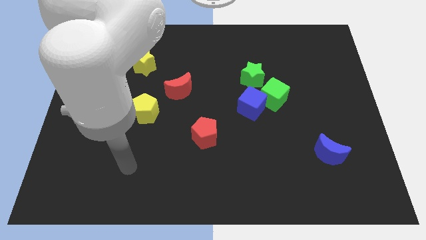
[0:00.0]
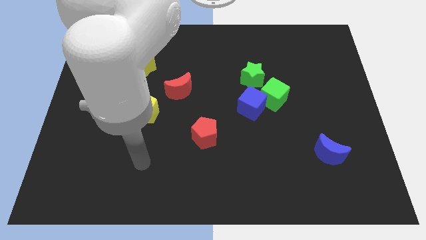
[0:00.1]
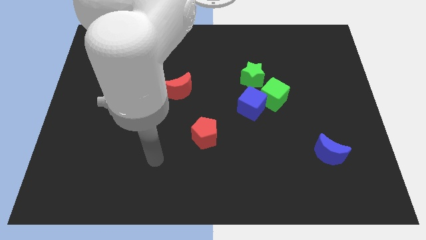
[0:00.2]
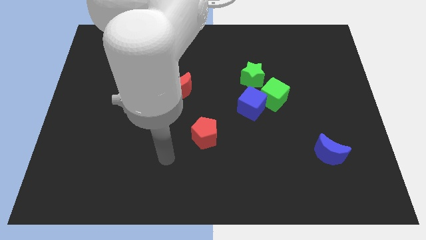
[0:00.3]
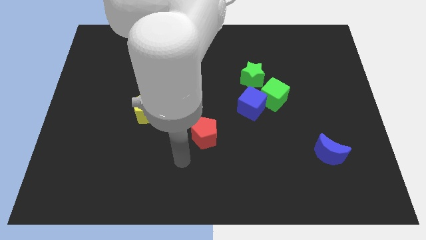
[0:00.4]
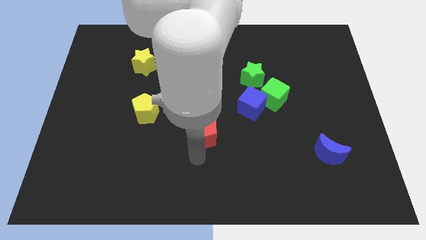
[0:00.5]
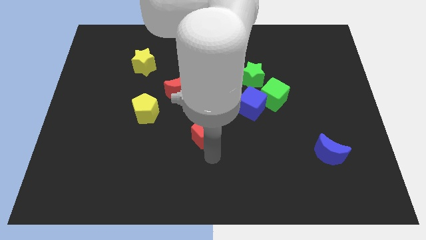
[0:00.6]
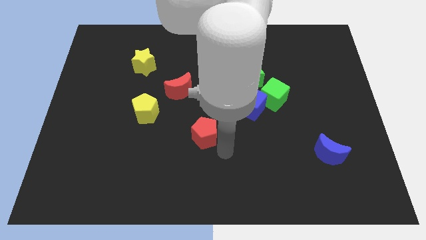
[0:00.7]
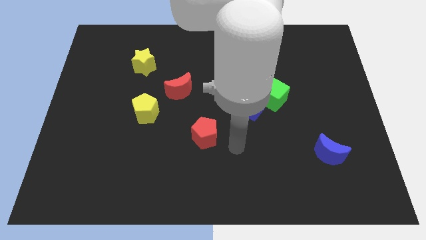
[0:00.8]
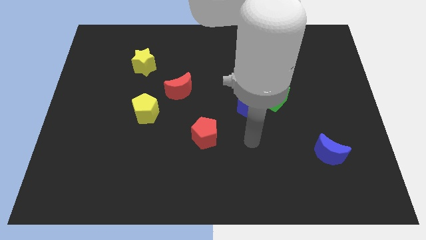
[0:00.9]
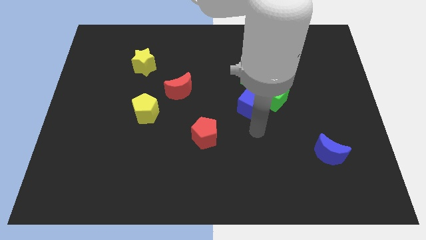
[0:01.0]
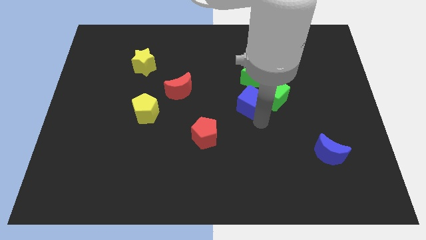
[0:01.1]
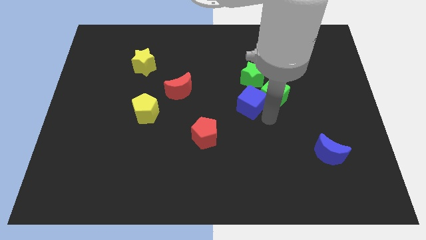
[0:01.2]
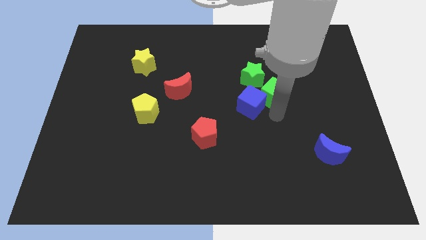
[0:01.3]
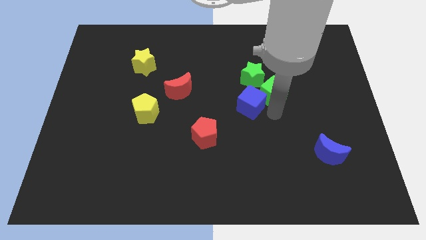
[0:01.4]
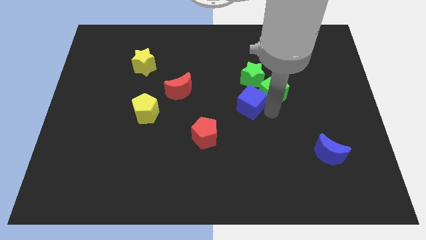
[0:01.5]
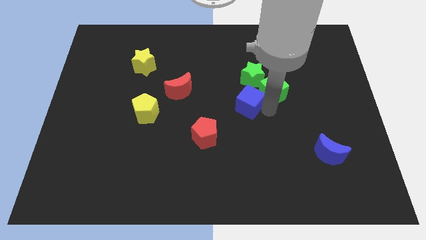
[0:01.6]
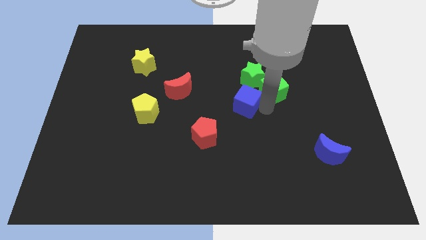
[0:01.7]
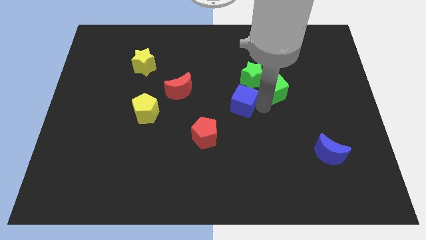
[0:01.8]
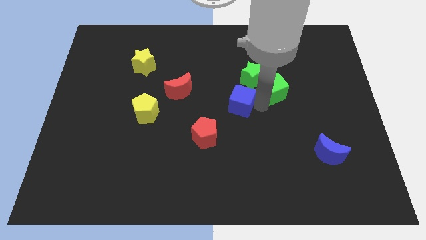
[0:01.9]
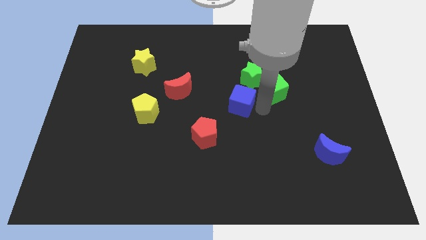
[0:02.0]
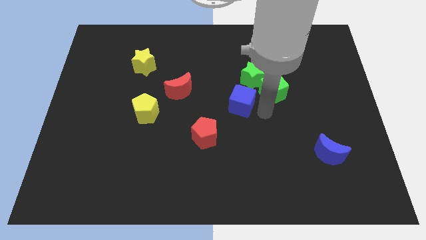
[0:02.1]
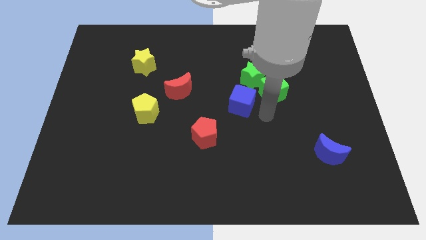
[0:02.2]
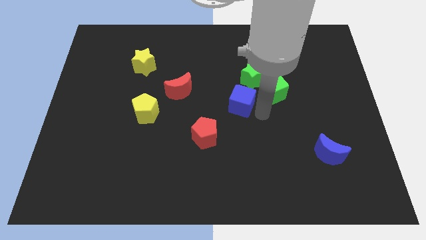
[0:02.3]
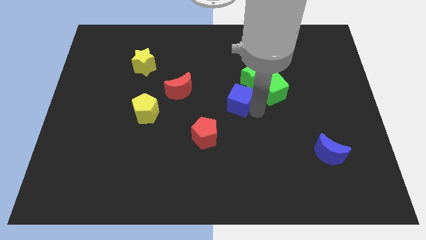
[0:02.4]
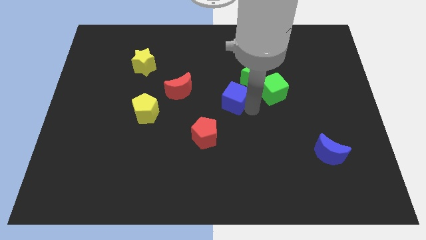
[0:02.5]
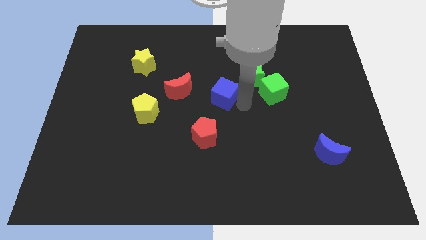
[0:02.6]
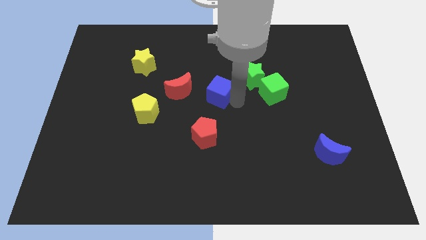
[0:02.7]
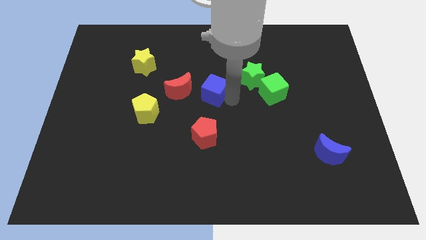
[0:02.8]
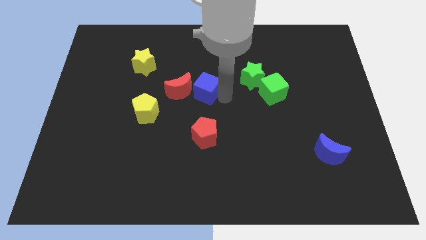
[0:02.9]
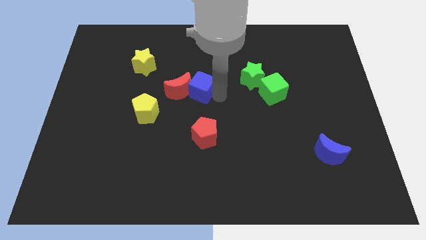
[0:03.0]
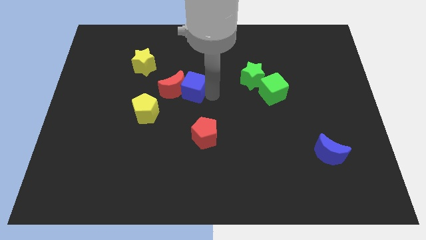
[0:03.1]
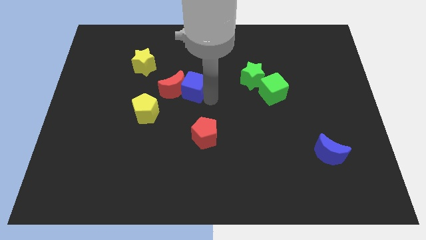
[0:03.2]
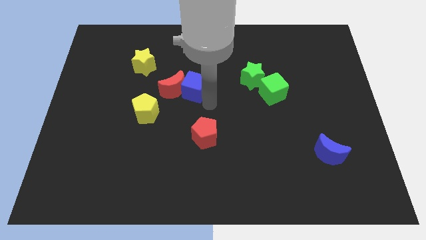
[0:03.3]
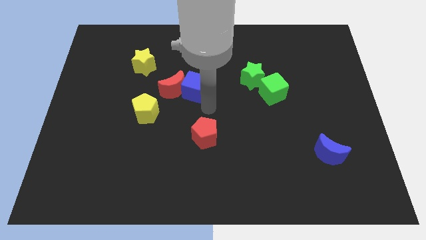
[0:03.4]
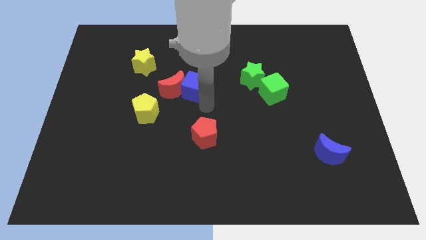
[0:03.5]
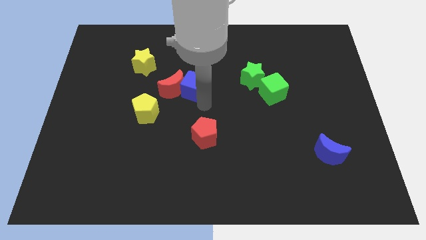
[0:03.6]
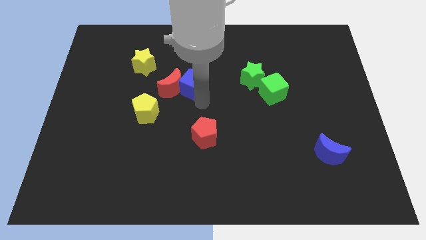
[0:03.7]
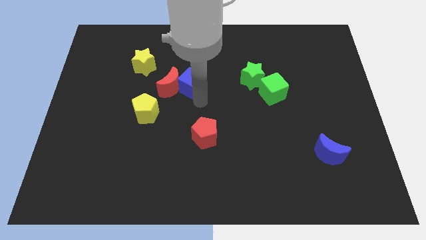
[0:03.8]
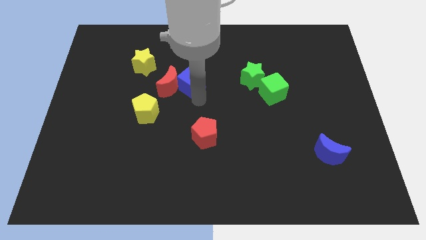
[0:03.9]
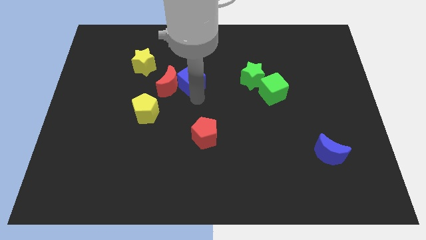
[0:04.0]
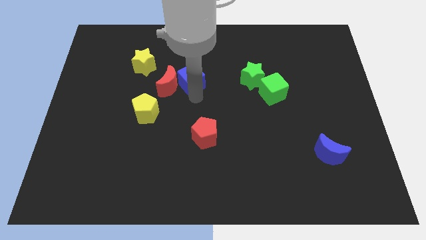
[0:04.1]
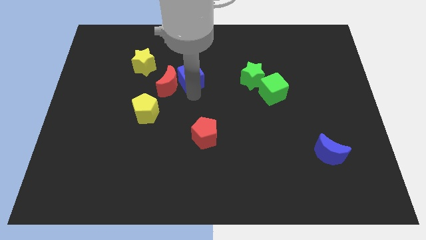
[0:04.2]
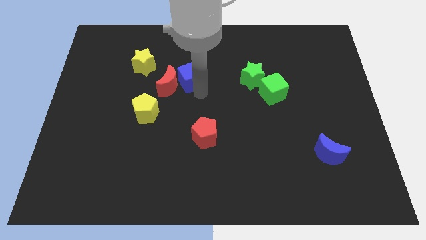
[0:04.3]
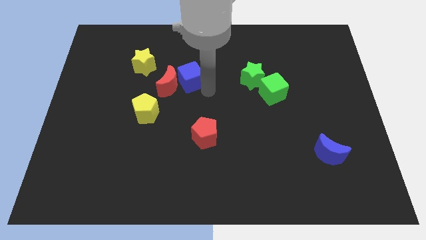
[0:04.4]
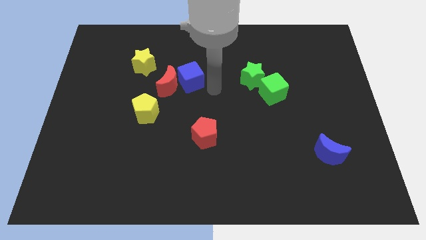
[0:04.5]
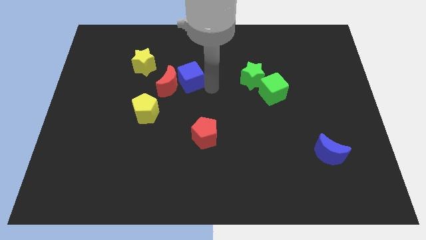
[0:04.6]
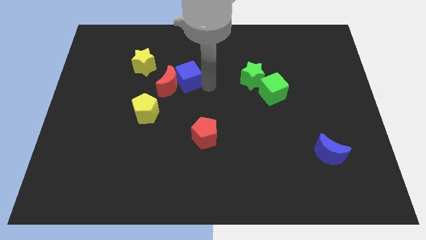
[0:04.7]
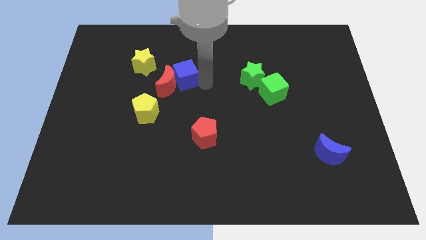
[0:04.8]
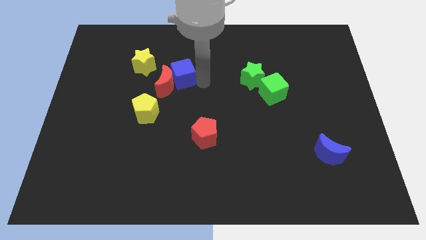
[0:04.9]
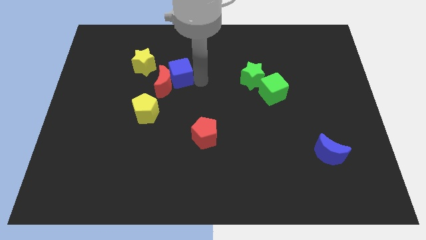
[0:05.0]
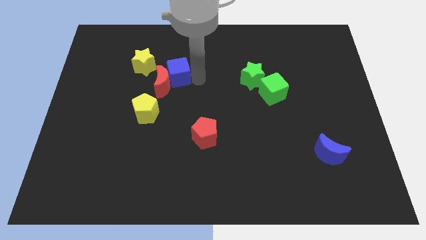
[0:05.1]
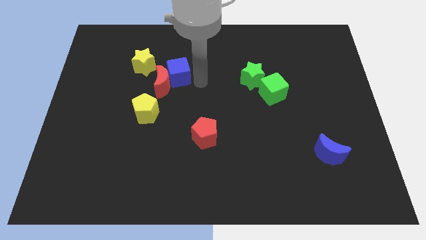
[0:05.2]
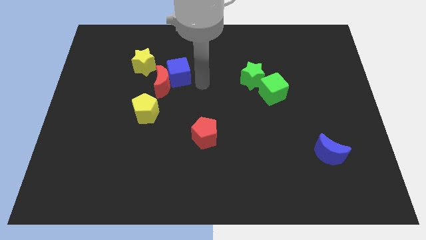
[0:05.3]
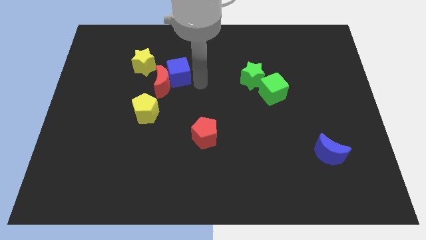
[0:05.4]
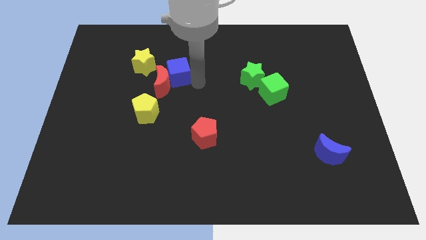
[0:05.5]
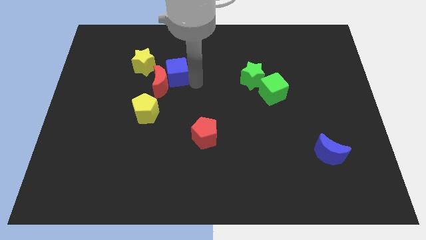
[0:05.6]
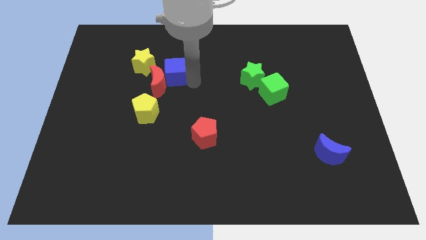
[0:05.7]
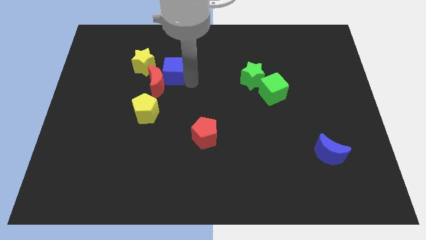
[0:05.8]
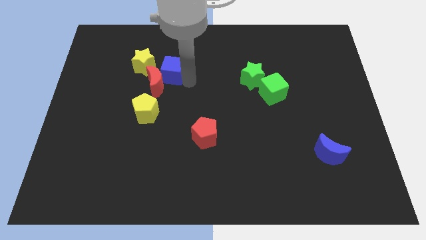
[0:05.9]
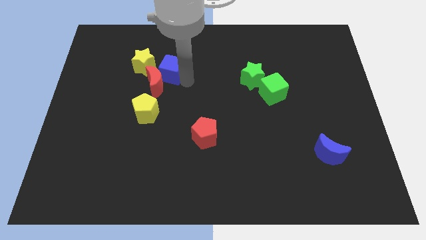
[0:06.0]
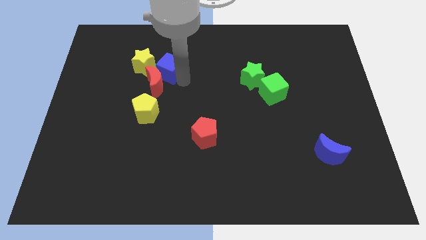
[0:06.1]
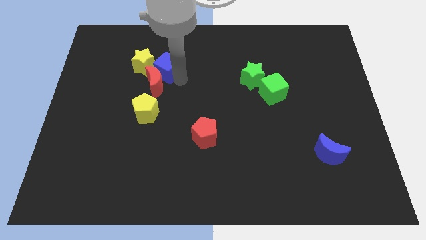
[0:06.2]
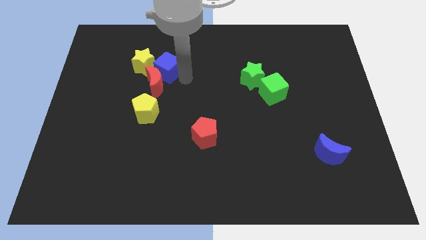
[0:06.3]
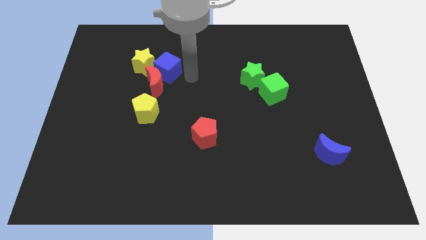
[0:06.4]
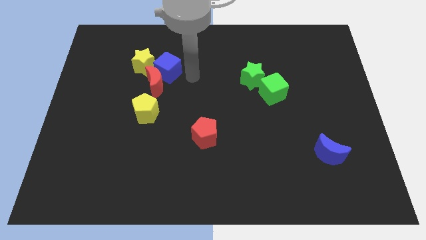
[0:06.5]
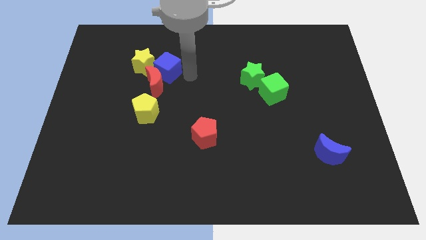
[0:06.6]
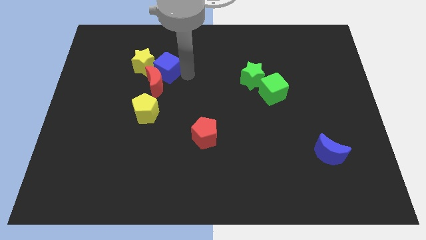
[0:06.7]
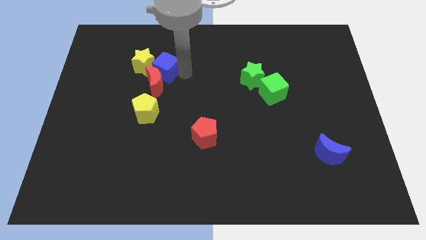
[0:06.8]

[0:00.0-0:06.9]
push the blue cube towards the yellow star
